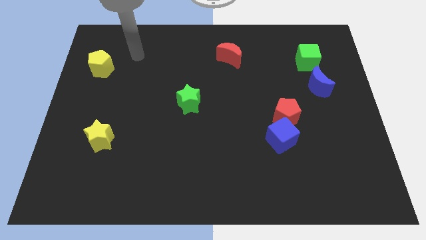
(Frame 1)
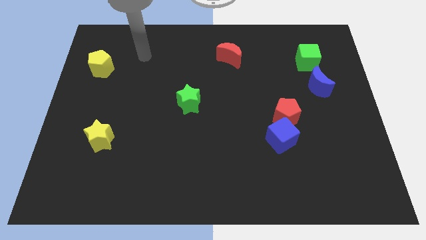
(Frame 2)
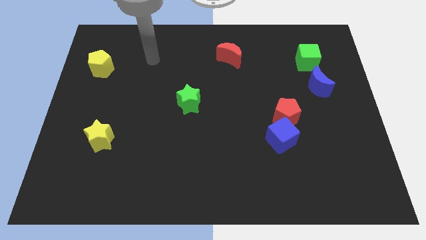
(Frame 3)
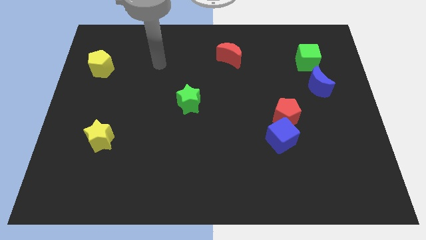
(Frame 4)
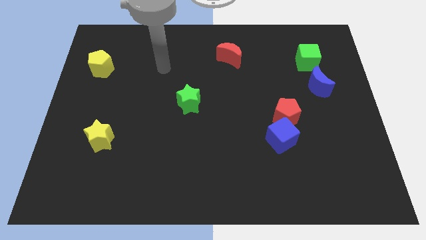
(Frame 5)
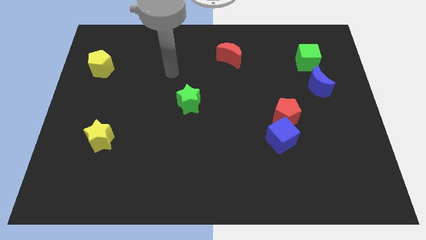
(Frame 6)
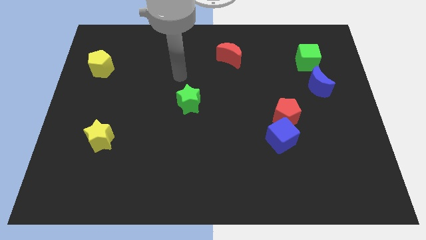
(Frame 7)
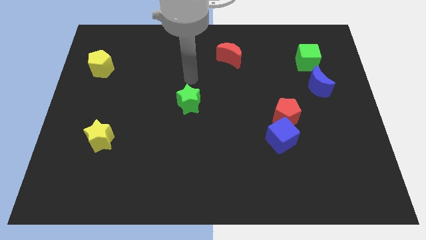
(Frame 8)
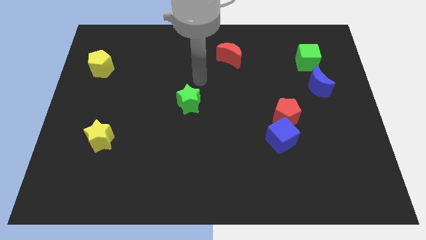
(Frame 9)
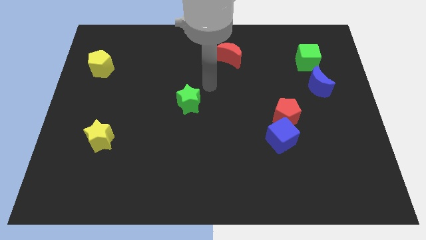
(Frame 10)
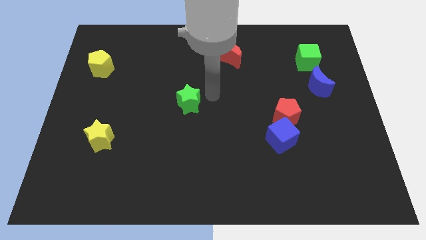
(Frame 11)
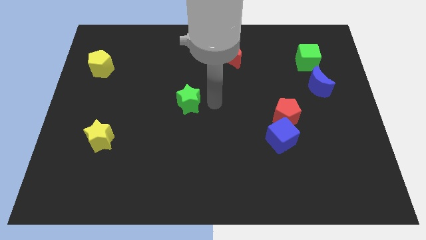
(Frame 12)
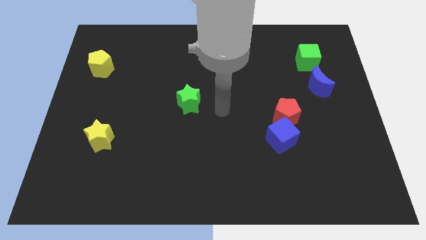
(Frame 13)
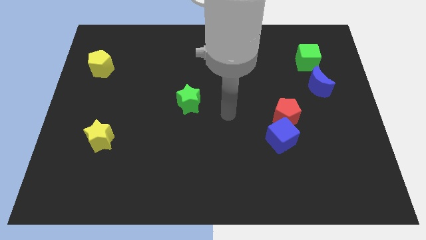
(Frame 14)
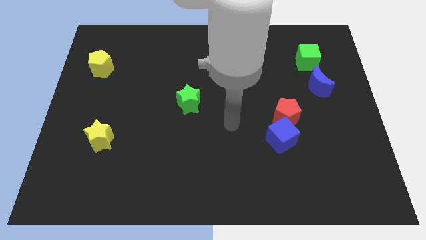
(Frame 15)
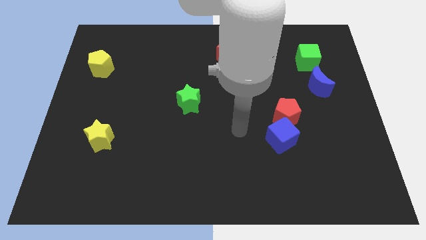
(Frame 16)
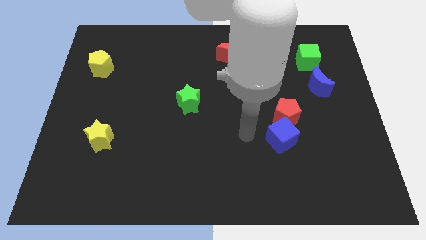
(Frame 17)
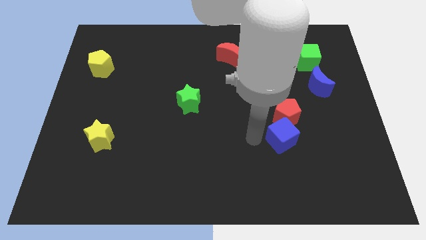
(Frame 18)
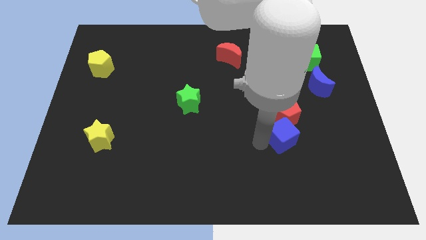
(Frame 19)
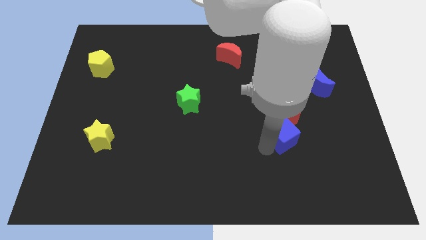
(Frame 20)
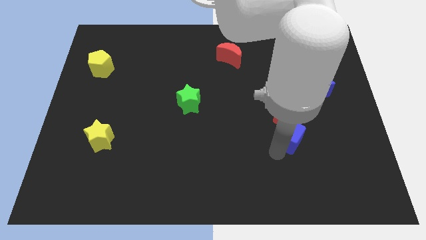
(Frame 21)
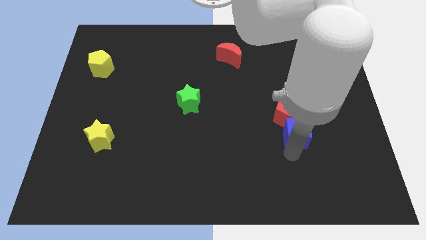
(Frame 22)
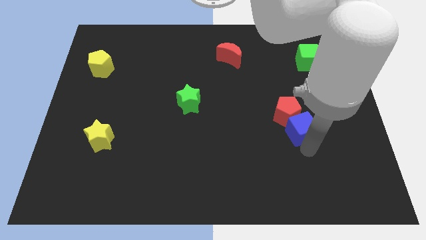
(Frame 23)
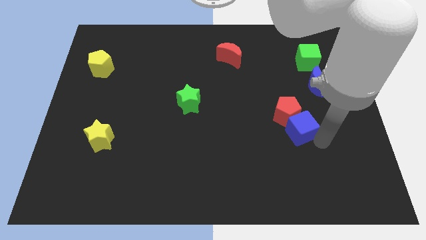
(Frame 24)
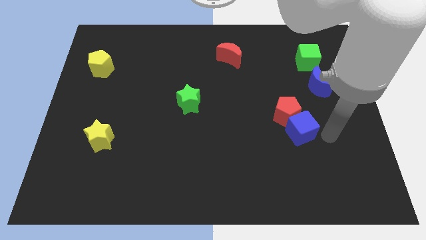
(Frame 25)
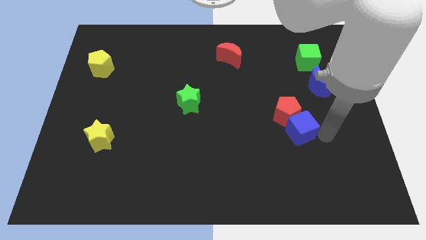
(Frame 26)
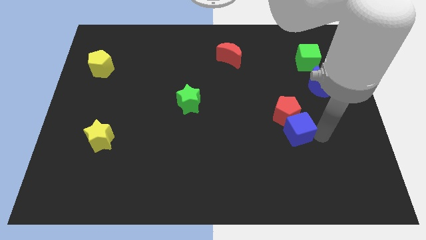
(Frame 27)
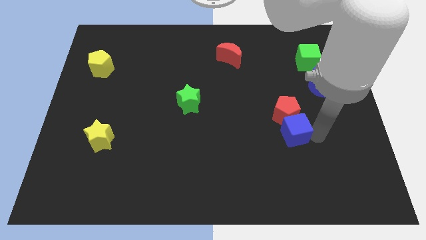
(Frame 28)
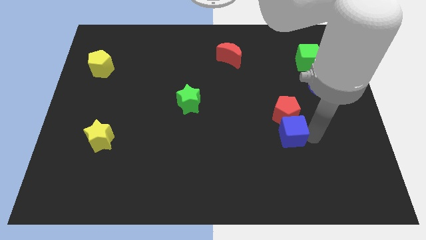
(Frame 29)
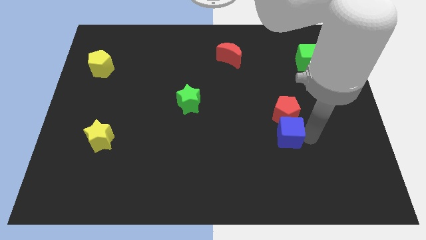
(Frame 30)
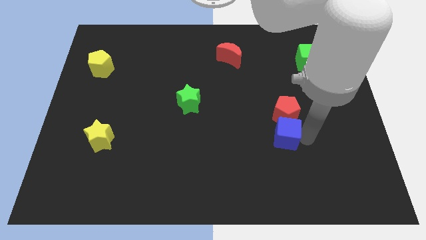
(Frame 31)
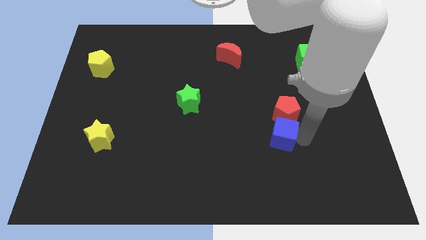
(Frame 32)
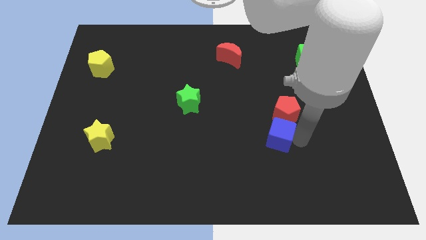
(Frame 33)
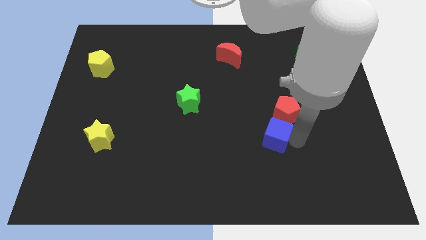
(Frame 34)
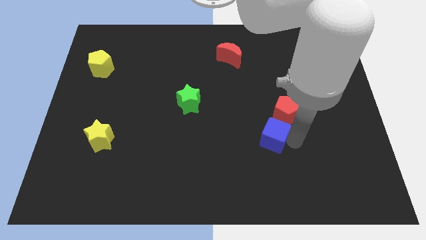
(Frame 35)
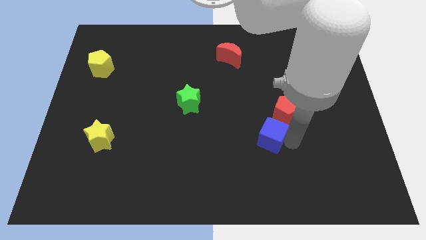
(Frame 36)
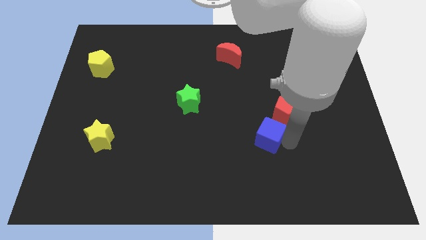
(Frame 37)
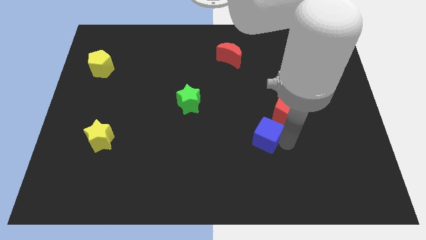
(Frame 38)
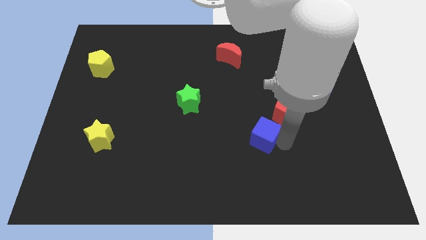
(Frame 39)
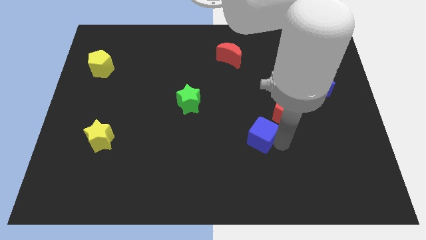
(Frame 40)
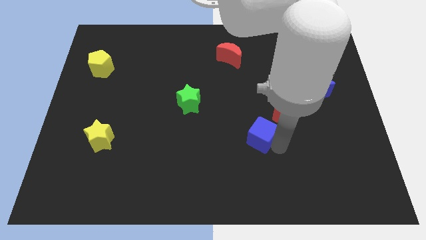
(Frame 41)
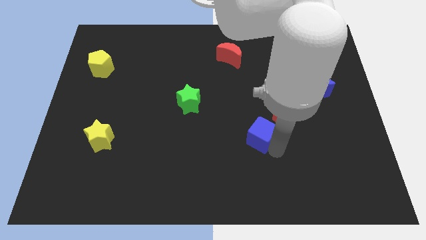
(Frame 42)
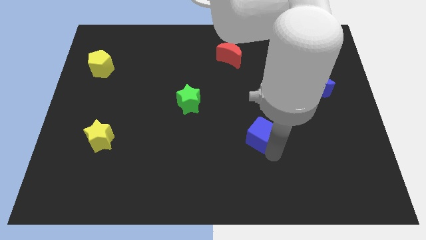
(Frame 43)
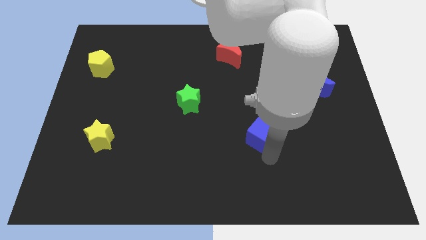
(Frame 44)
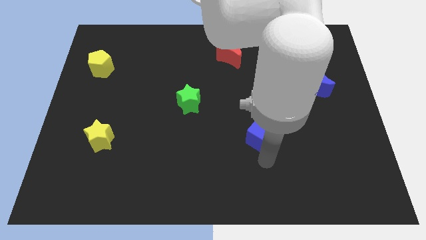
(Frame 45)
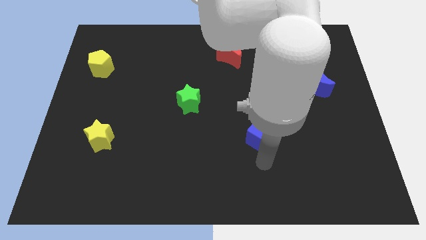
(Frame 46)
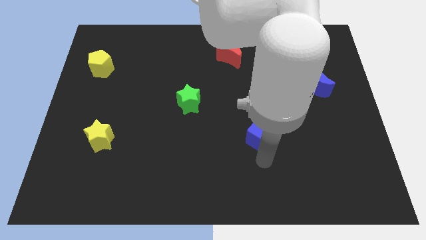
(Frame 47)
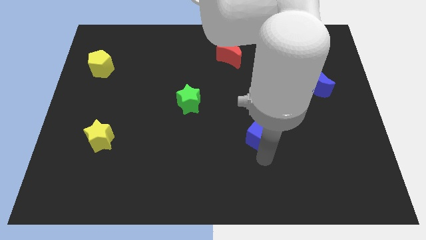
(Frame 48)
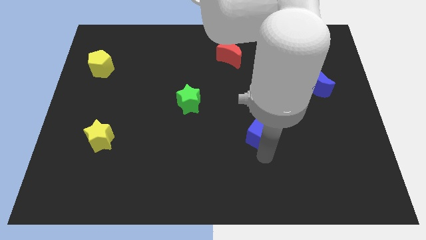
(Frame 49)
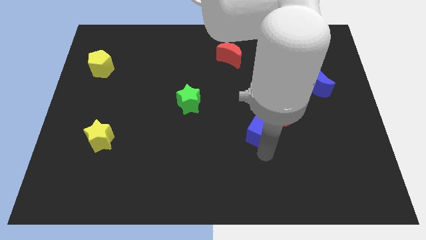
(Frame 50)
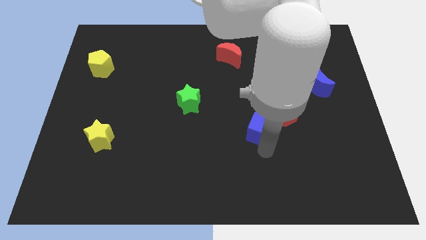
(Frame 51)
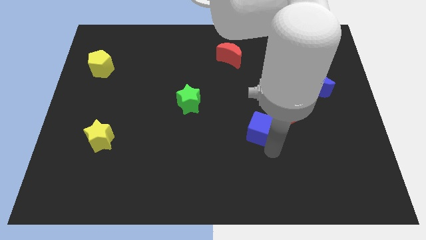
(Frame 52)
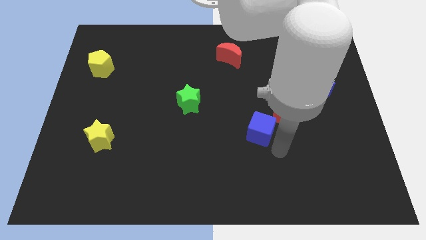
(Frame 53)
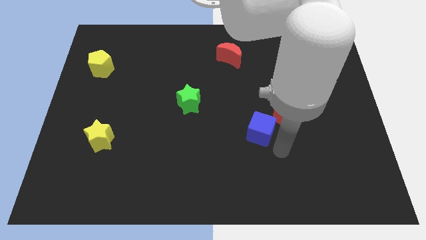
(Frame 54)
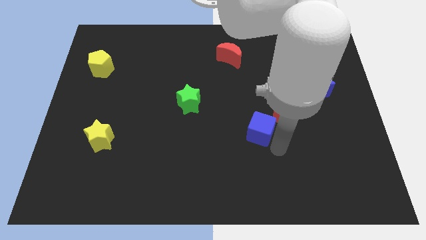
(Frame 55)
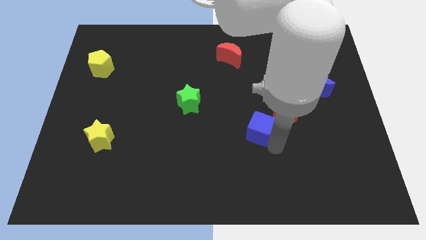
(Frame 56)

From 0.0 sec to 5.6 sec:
put the blue cube to the left side of the red pentagon

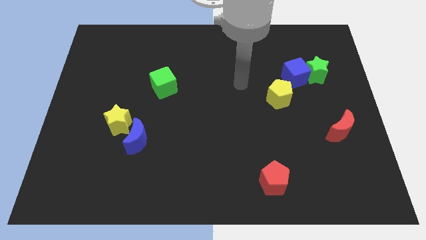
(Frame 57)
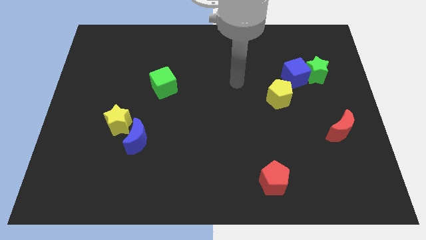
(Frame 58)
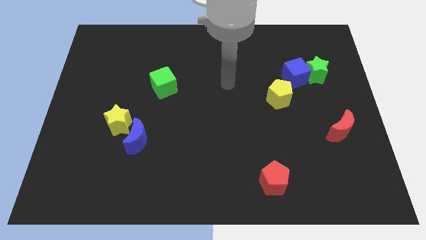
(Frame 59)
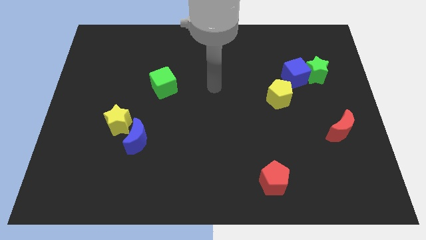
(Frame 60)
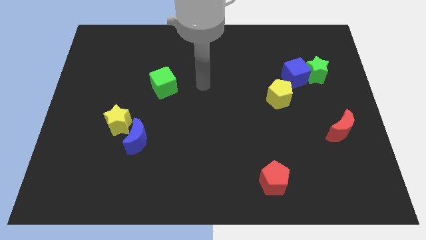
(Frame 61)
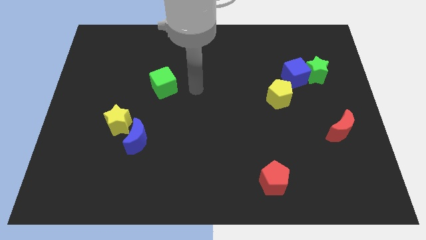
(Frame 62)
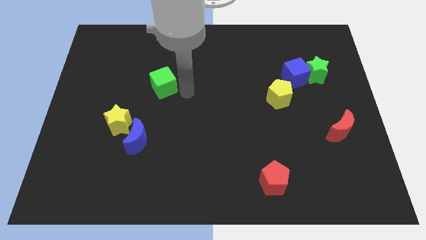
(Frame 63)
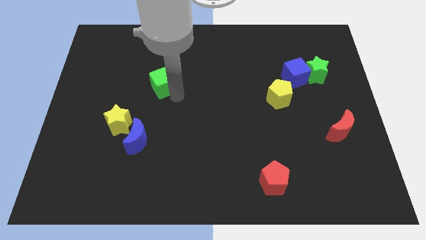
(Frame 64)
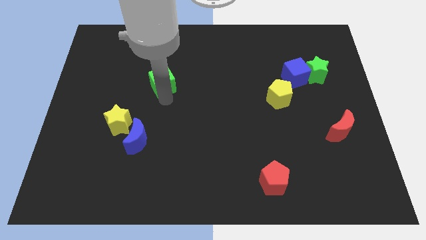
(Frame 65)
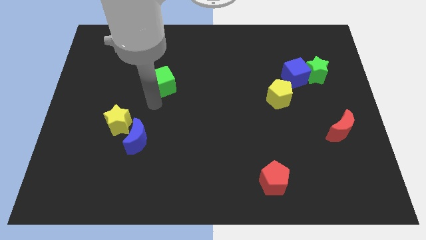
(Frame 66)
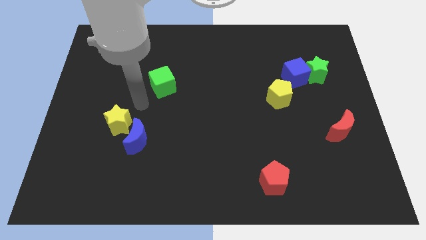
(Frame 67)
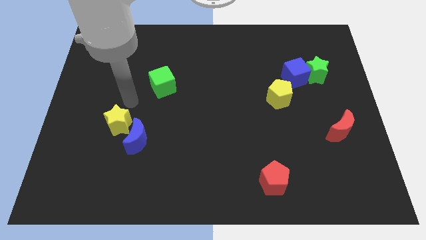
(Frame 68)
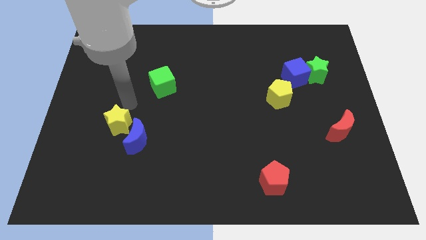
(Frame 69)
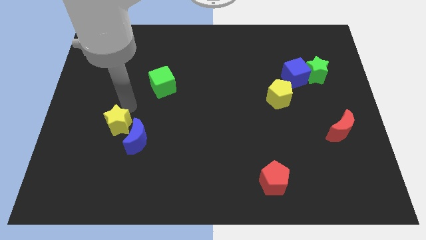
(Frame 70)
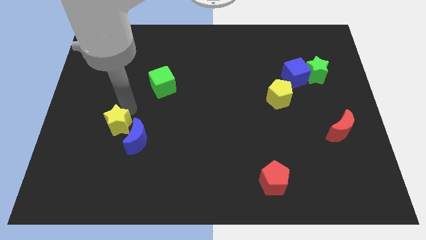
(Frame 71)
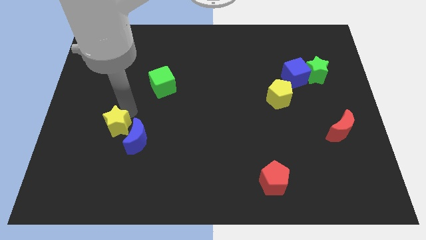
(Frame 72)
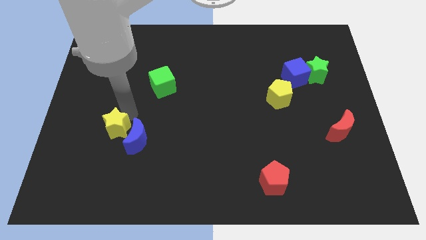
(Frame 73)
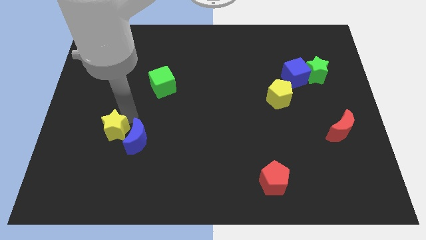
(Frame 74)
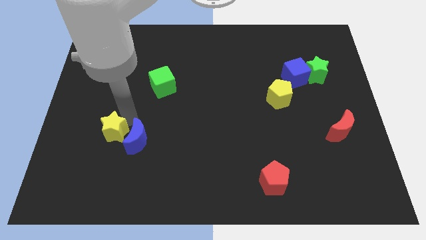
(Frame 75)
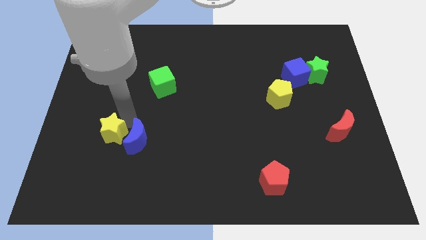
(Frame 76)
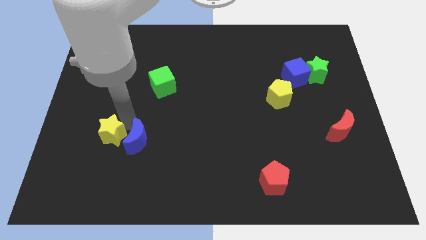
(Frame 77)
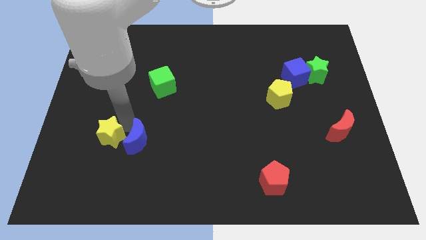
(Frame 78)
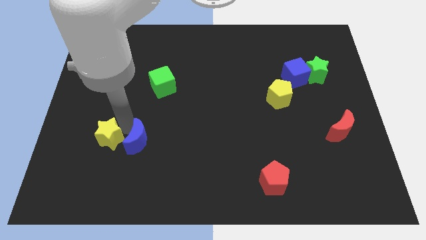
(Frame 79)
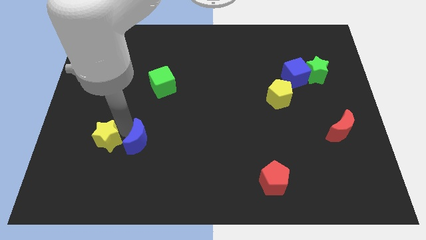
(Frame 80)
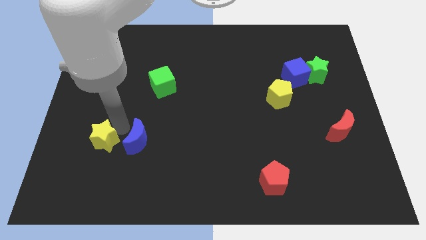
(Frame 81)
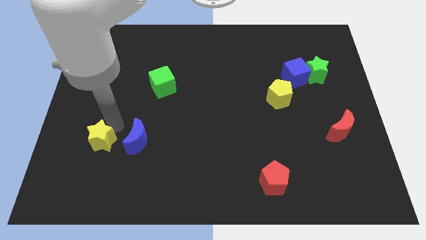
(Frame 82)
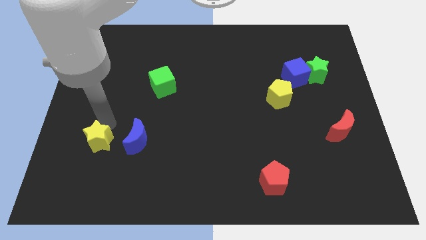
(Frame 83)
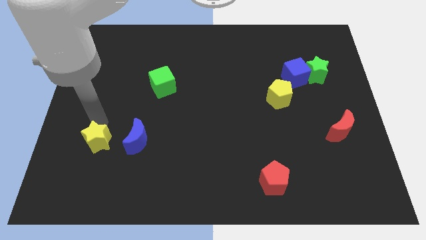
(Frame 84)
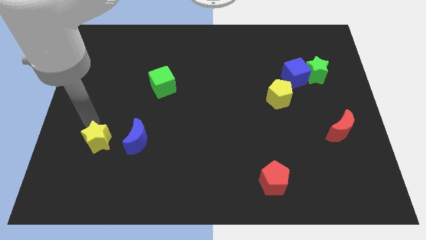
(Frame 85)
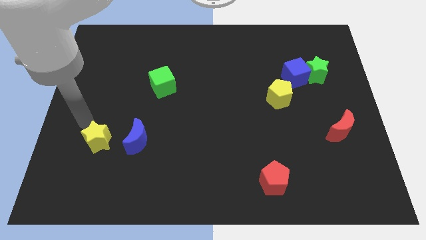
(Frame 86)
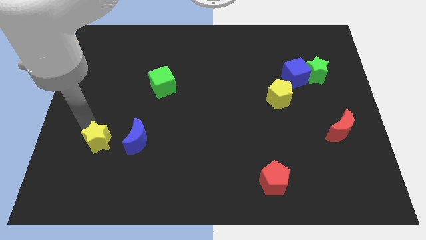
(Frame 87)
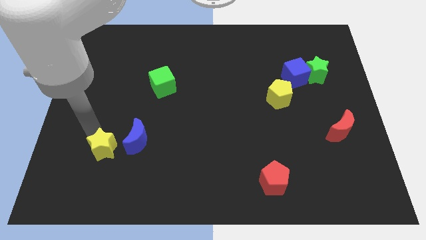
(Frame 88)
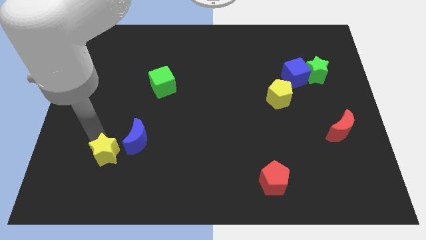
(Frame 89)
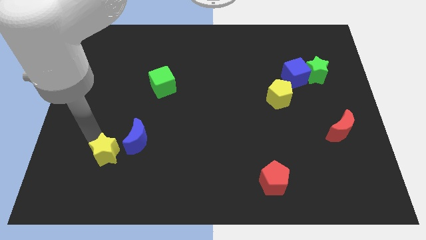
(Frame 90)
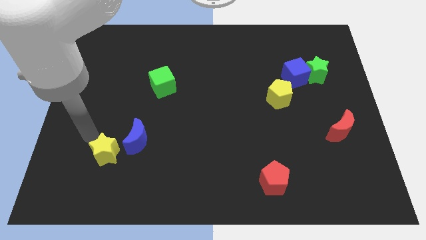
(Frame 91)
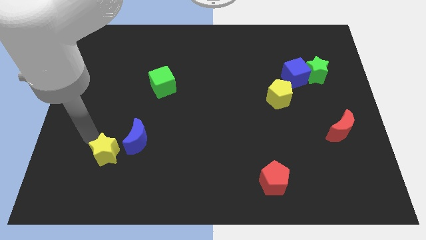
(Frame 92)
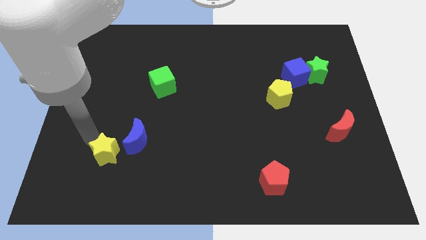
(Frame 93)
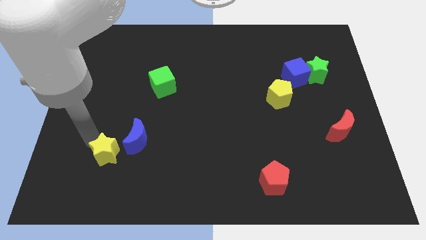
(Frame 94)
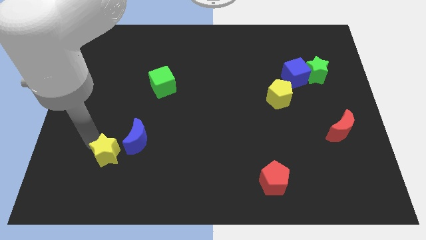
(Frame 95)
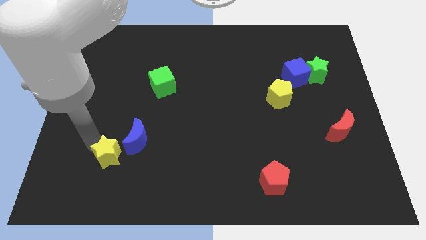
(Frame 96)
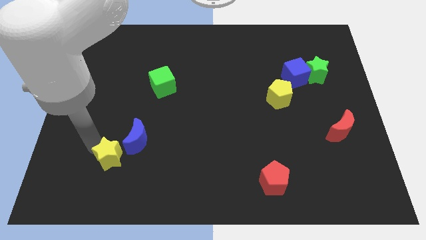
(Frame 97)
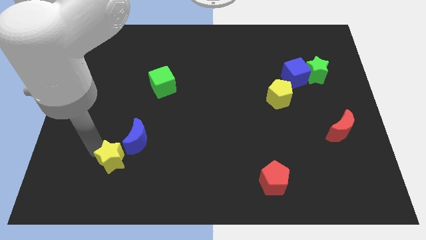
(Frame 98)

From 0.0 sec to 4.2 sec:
put the yellow star to the bottom side of the blue moon
